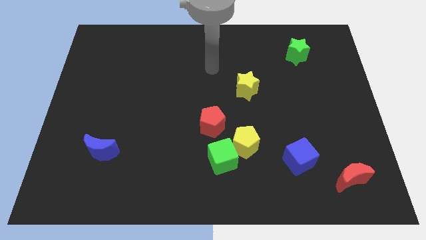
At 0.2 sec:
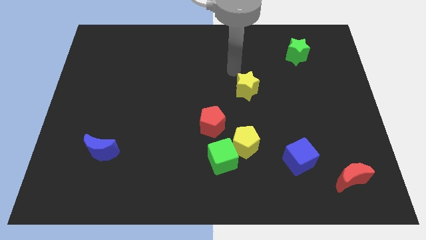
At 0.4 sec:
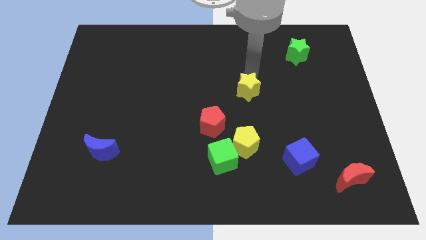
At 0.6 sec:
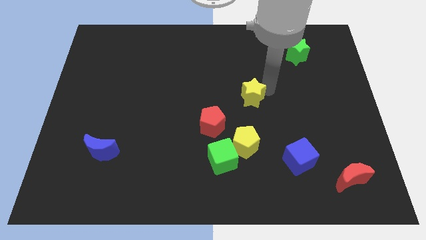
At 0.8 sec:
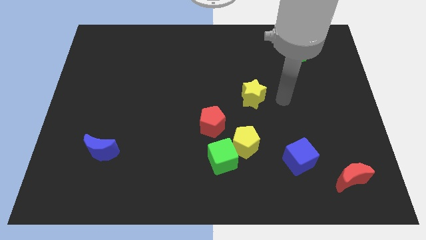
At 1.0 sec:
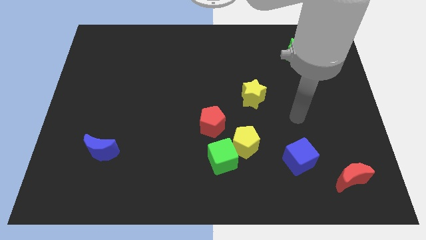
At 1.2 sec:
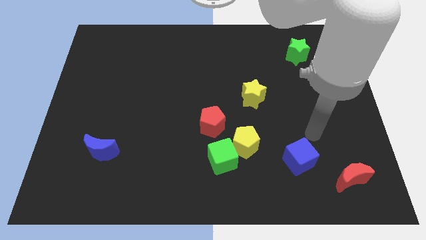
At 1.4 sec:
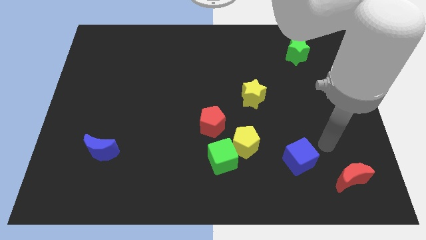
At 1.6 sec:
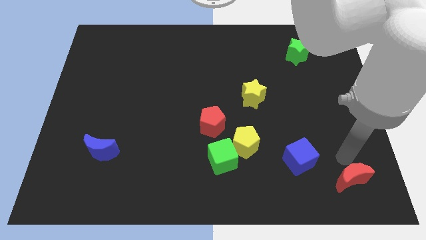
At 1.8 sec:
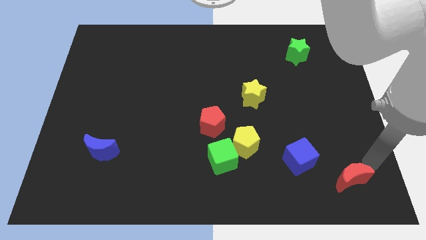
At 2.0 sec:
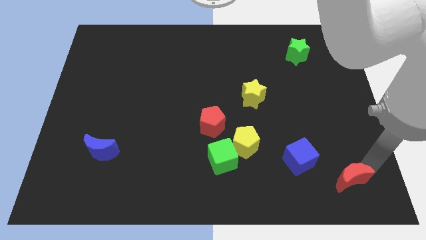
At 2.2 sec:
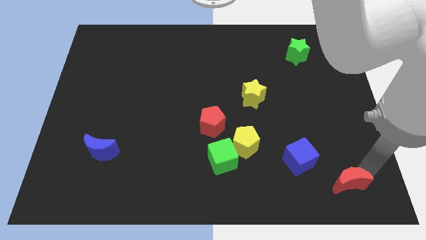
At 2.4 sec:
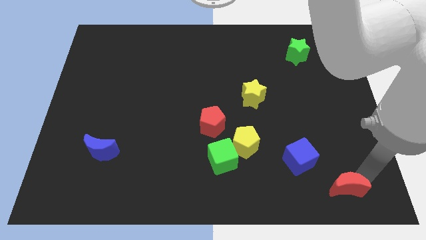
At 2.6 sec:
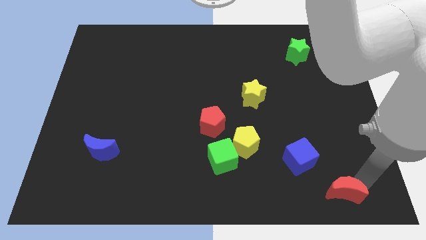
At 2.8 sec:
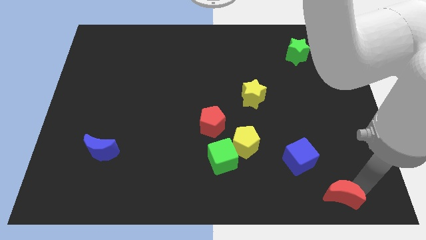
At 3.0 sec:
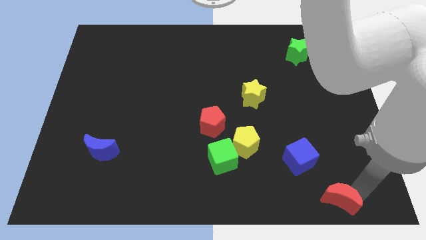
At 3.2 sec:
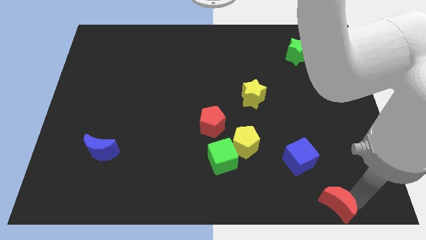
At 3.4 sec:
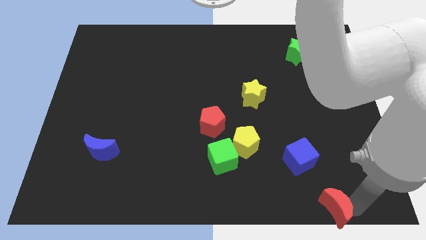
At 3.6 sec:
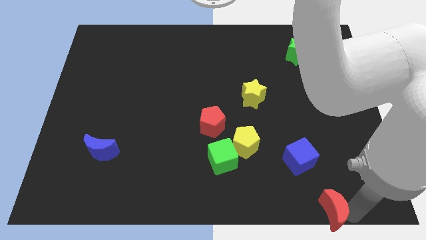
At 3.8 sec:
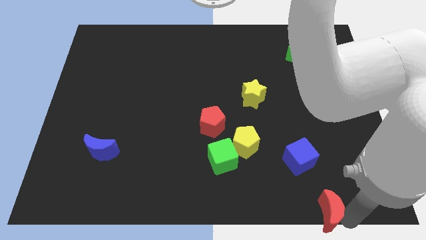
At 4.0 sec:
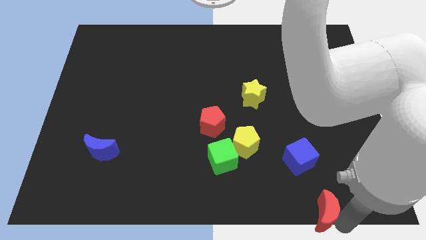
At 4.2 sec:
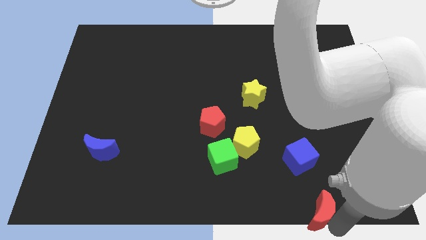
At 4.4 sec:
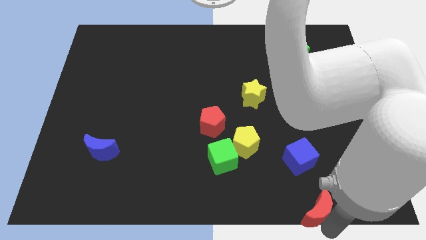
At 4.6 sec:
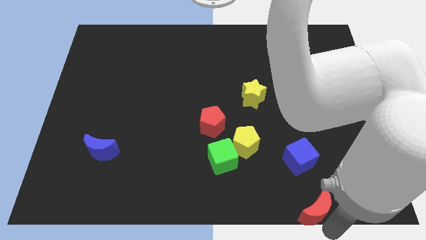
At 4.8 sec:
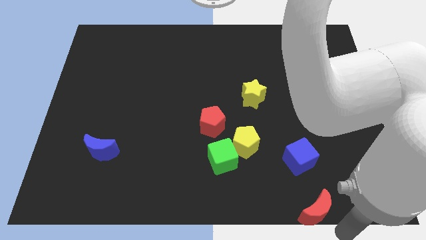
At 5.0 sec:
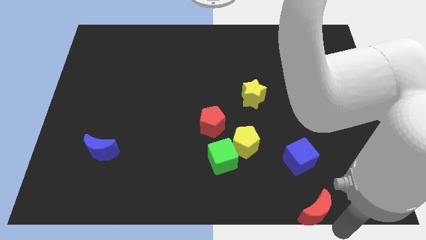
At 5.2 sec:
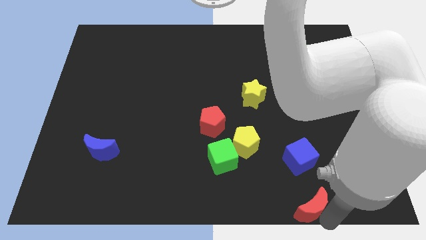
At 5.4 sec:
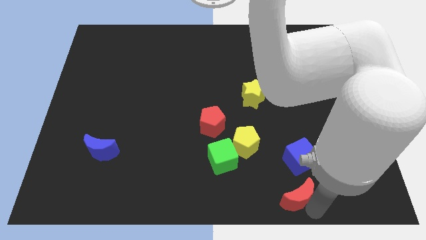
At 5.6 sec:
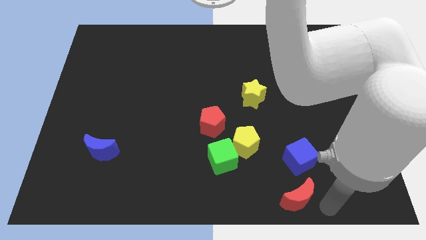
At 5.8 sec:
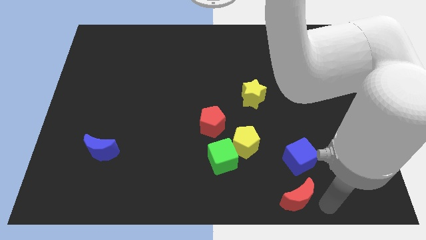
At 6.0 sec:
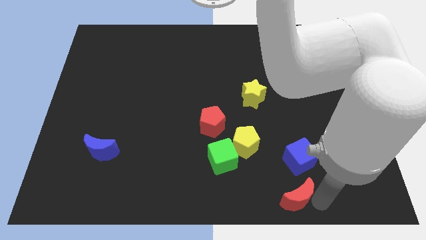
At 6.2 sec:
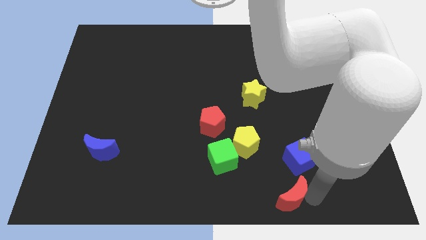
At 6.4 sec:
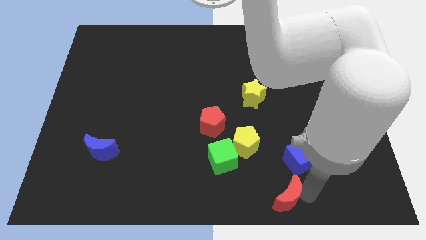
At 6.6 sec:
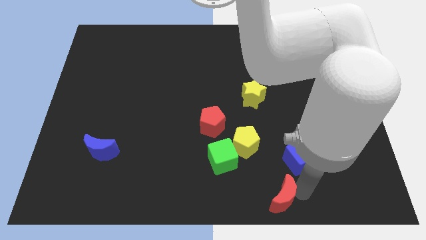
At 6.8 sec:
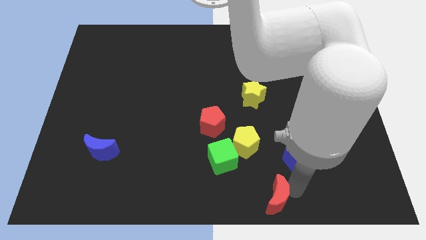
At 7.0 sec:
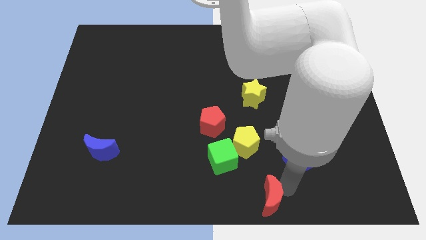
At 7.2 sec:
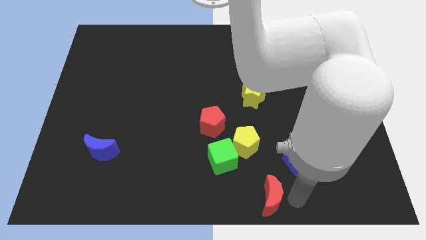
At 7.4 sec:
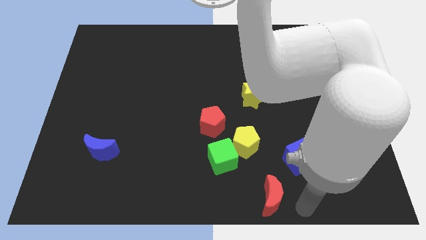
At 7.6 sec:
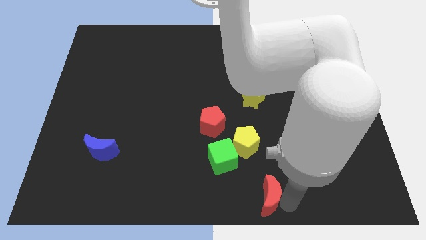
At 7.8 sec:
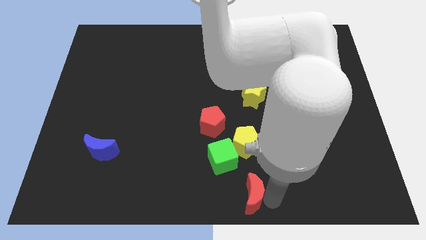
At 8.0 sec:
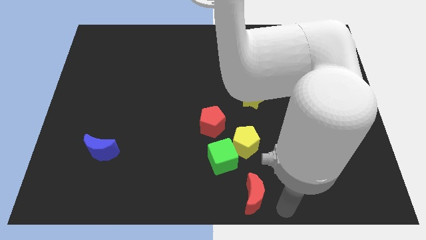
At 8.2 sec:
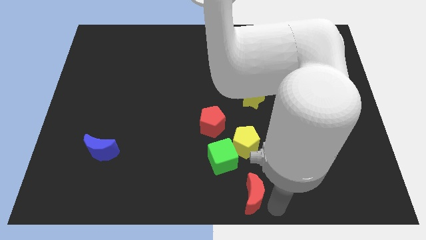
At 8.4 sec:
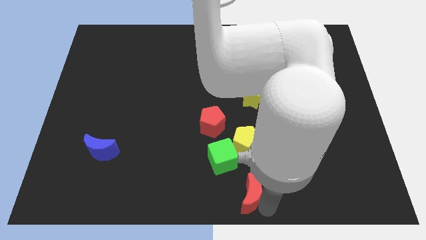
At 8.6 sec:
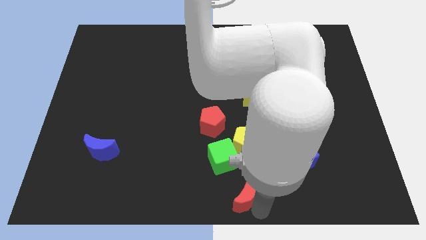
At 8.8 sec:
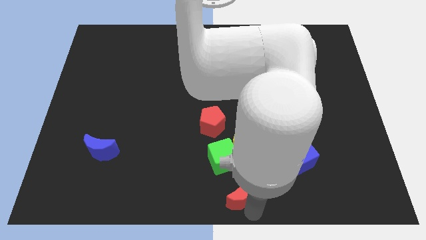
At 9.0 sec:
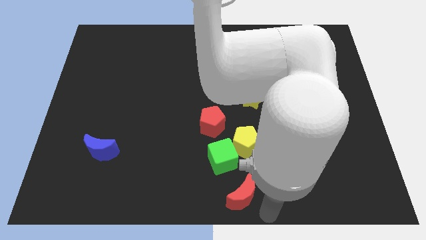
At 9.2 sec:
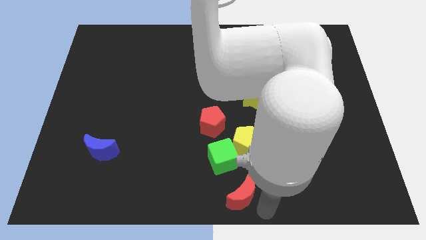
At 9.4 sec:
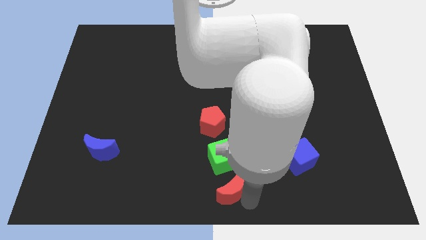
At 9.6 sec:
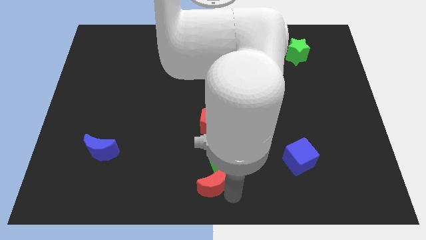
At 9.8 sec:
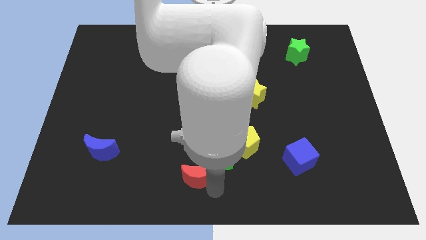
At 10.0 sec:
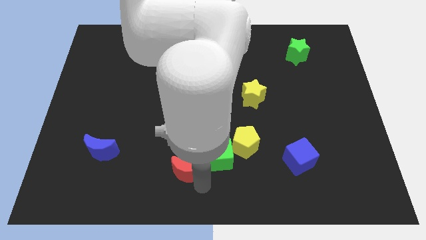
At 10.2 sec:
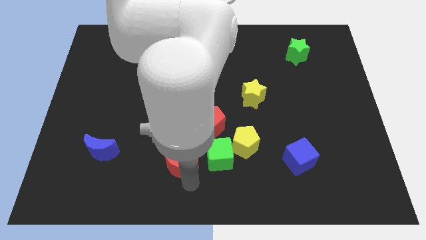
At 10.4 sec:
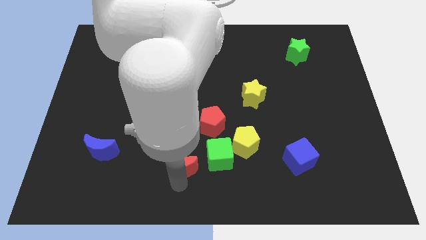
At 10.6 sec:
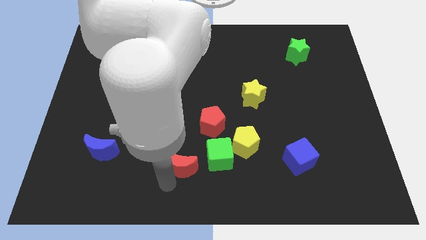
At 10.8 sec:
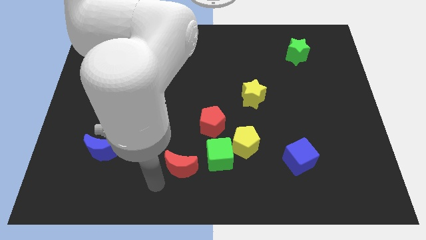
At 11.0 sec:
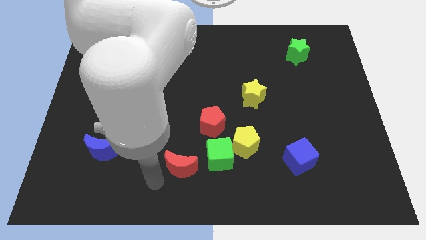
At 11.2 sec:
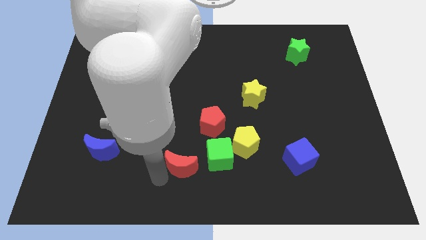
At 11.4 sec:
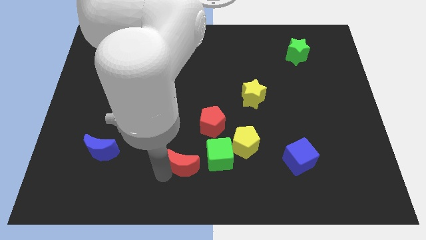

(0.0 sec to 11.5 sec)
put the red moon to the bottom left of the red pentagon

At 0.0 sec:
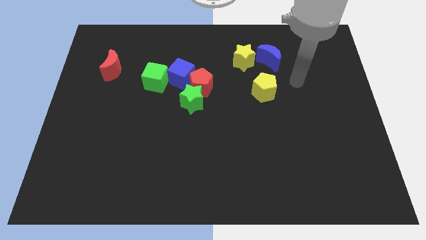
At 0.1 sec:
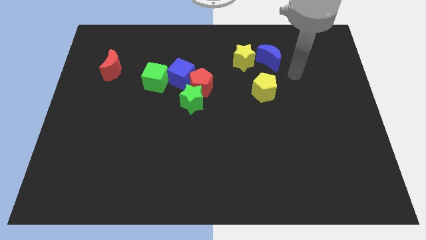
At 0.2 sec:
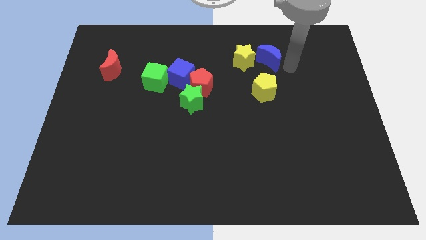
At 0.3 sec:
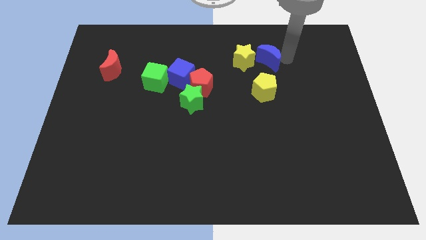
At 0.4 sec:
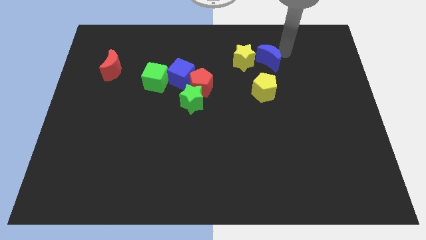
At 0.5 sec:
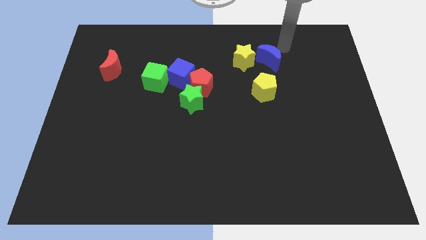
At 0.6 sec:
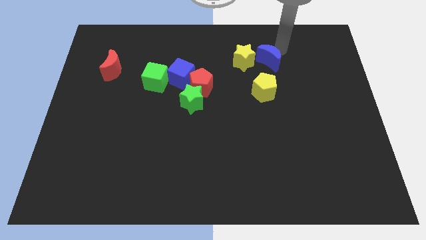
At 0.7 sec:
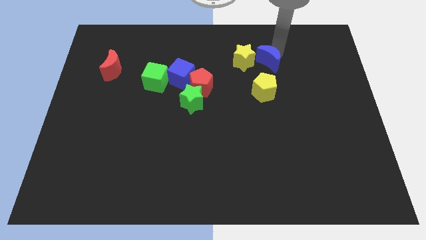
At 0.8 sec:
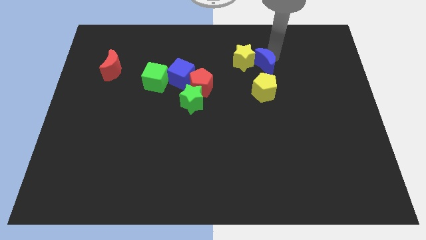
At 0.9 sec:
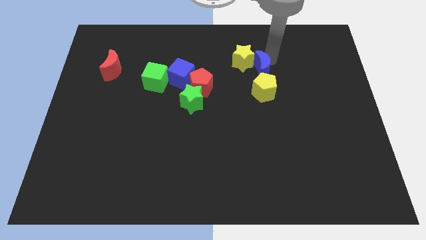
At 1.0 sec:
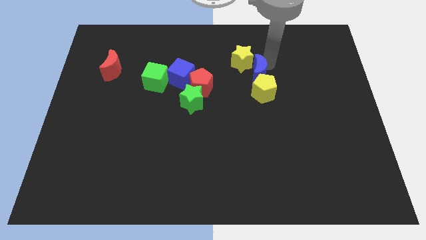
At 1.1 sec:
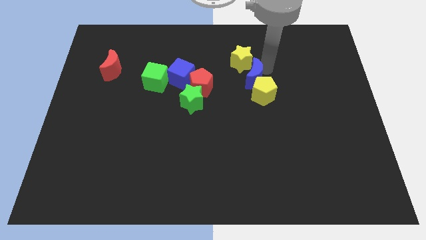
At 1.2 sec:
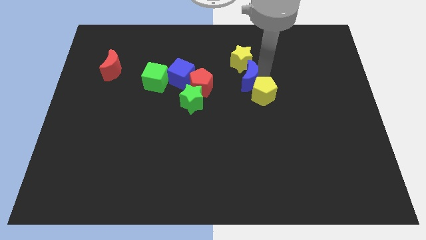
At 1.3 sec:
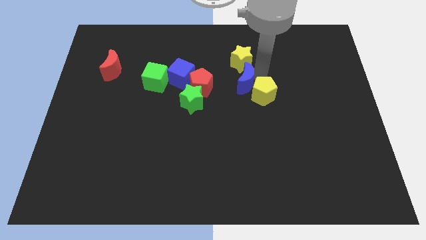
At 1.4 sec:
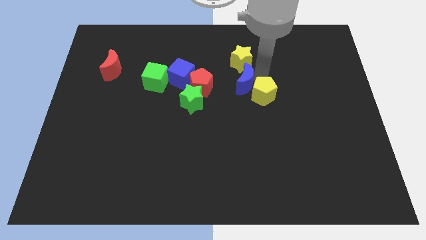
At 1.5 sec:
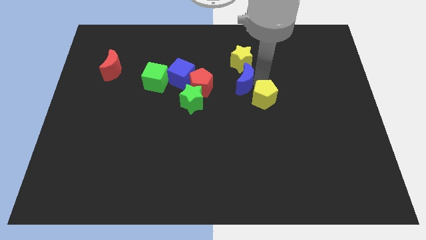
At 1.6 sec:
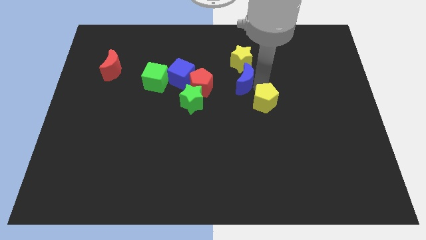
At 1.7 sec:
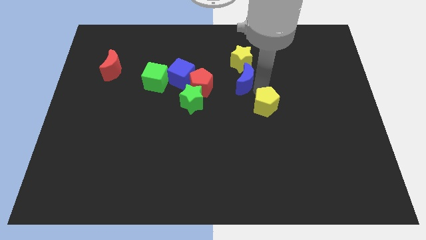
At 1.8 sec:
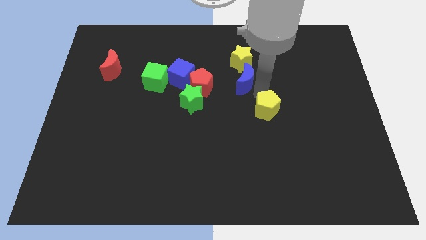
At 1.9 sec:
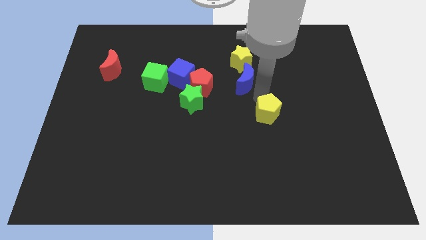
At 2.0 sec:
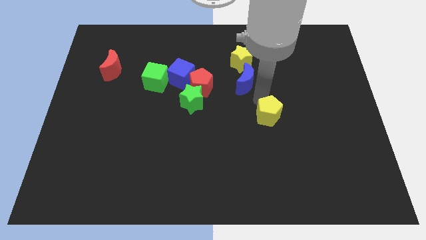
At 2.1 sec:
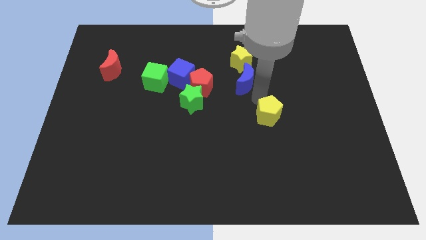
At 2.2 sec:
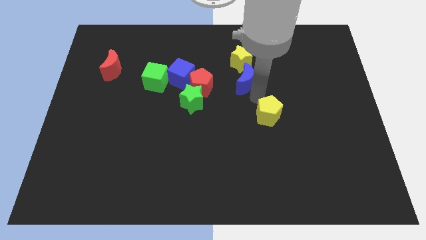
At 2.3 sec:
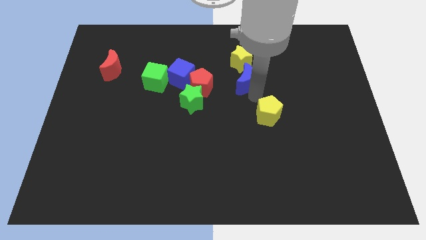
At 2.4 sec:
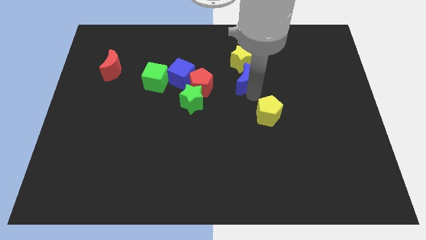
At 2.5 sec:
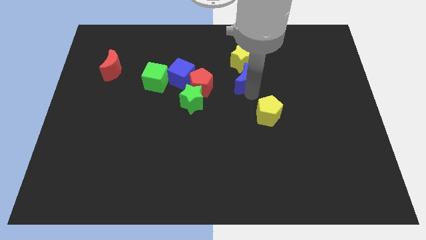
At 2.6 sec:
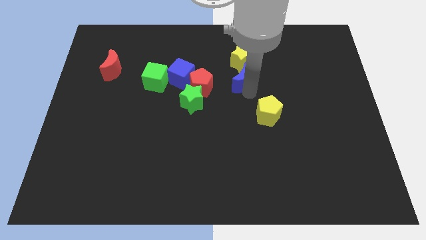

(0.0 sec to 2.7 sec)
push the blue moon diagonally down and to the left of the yellow star
